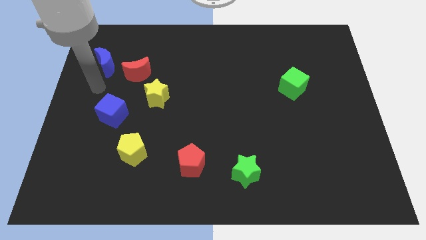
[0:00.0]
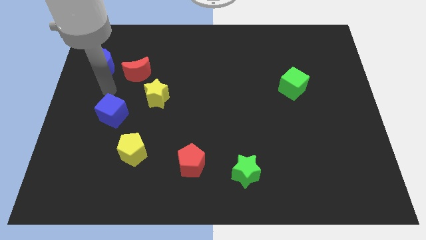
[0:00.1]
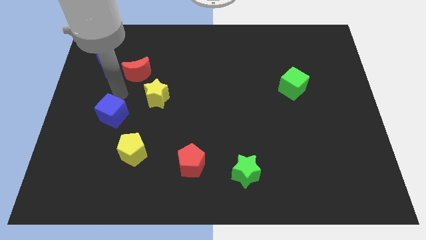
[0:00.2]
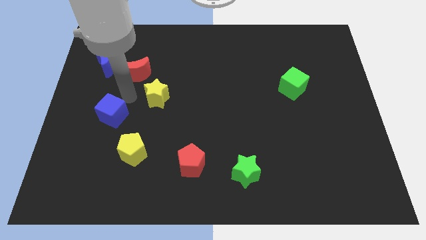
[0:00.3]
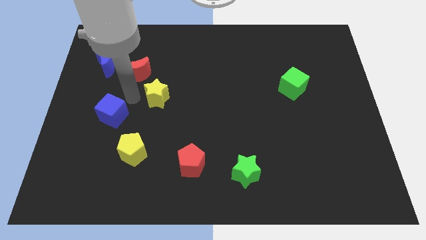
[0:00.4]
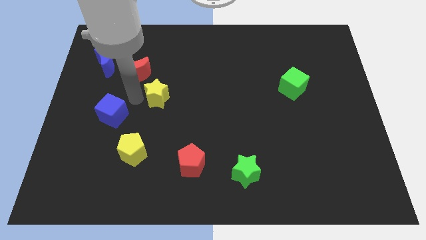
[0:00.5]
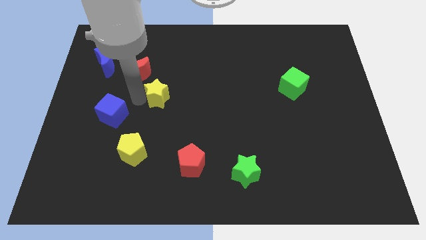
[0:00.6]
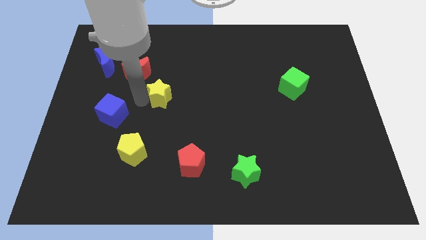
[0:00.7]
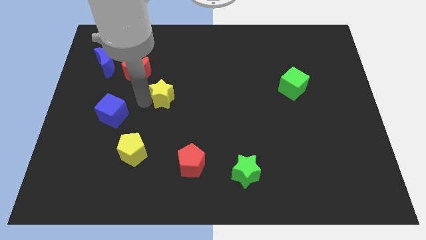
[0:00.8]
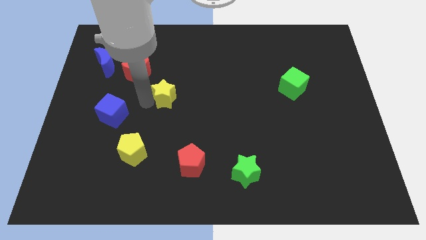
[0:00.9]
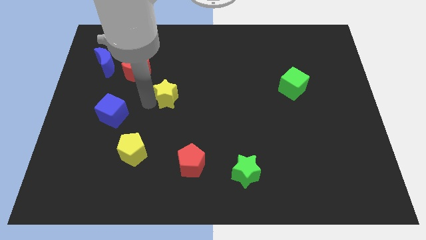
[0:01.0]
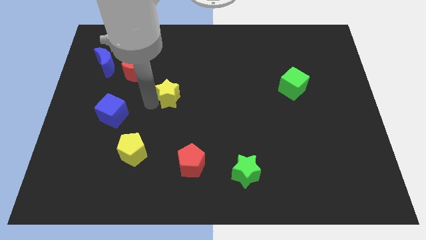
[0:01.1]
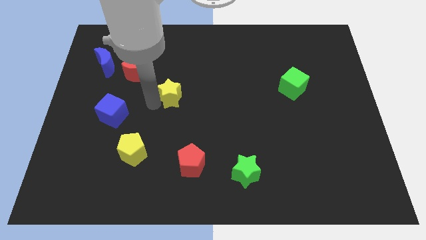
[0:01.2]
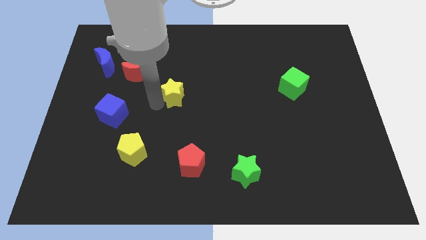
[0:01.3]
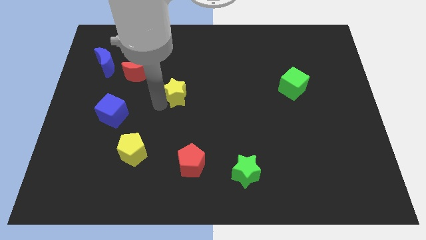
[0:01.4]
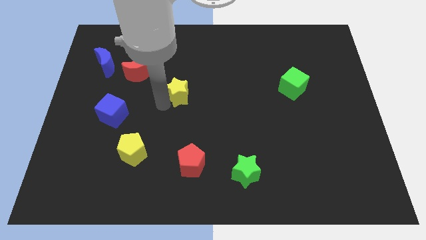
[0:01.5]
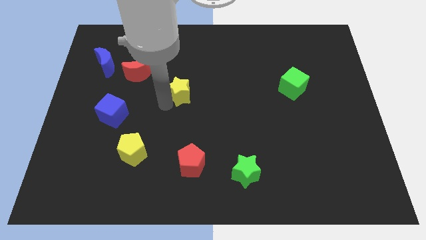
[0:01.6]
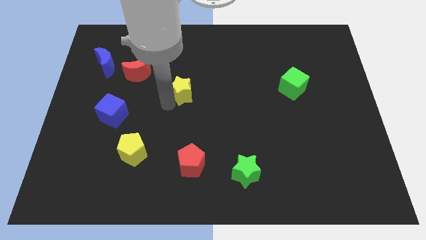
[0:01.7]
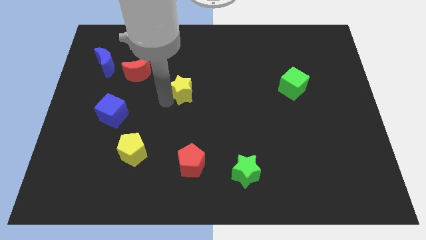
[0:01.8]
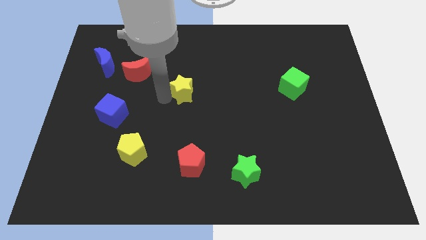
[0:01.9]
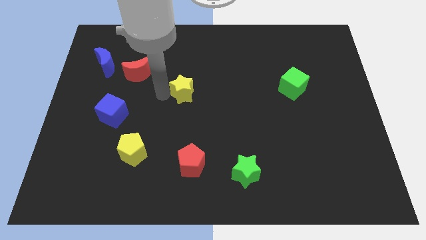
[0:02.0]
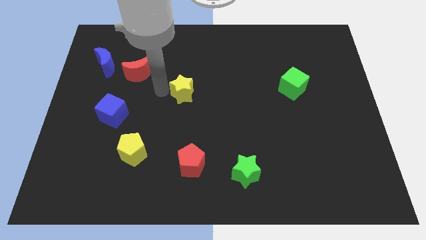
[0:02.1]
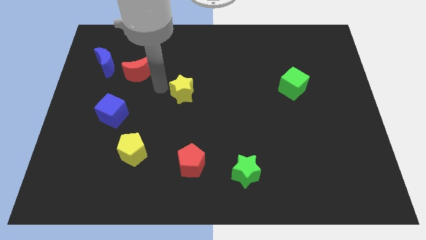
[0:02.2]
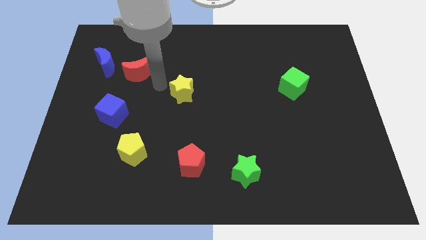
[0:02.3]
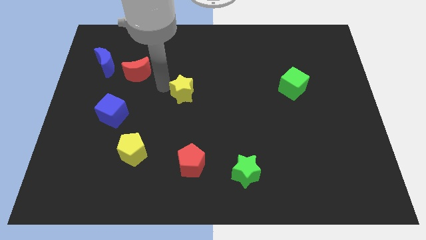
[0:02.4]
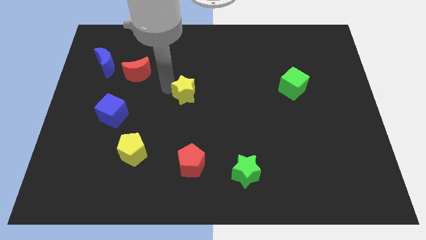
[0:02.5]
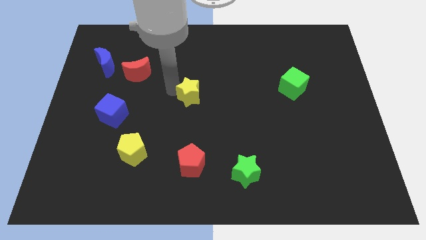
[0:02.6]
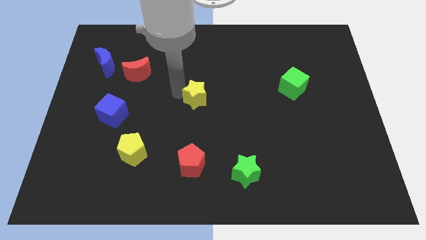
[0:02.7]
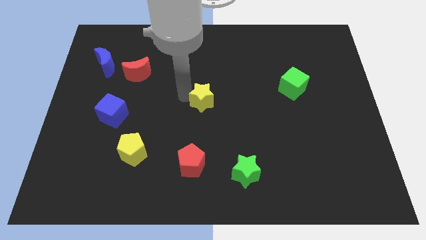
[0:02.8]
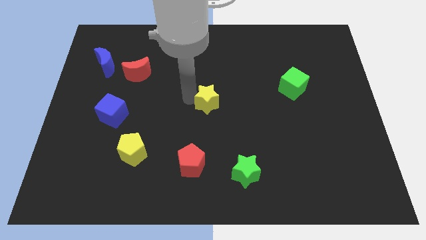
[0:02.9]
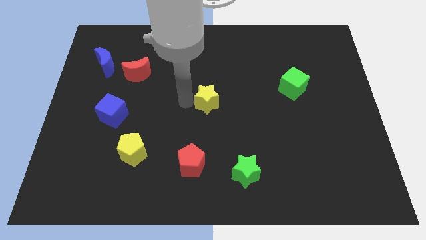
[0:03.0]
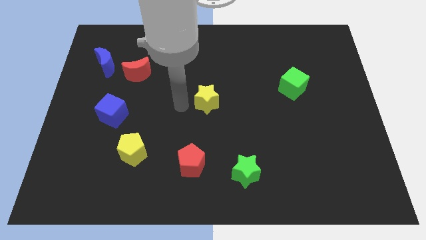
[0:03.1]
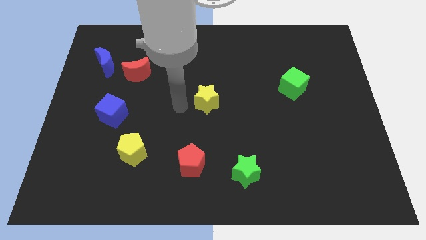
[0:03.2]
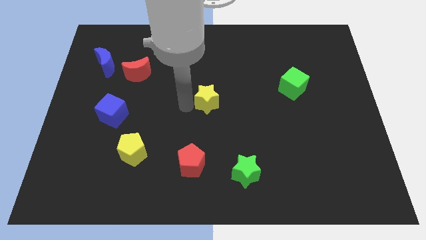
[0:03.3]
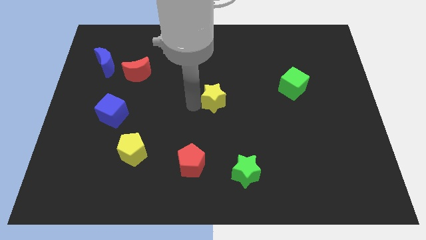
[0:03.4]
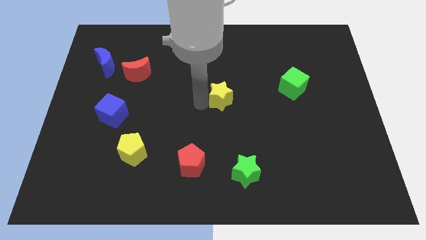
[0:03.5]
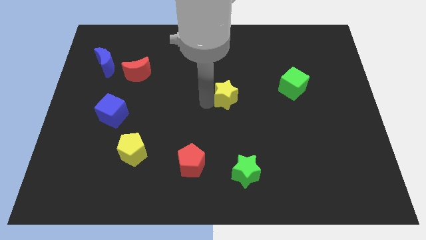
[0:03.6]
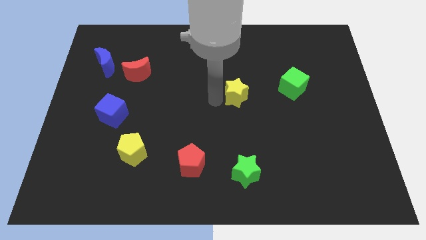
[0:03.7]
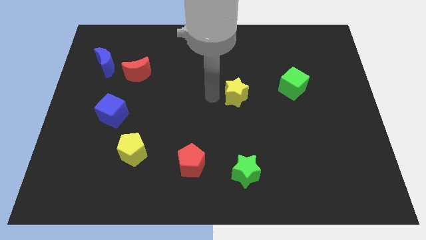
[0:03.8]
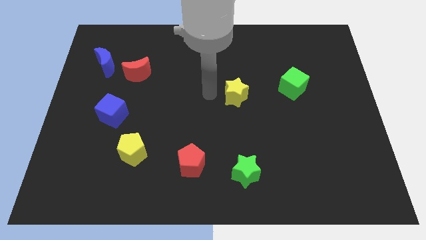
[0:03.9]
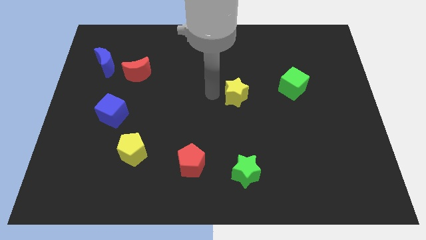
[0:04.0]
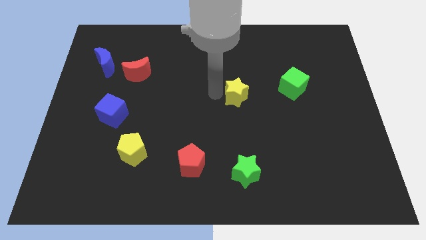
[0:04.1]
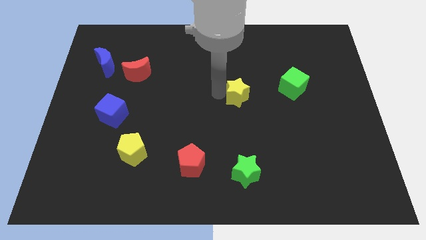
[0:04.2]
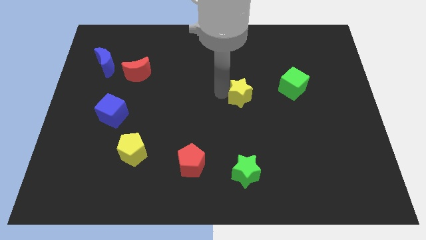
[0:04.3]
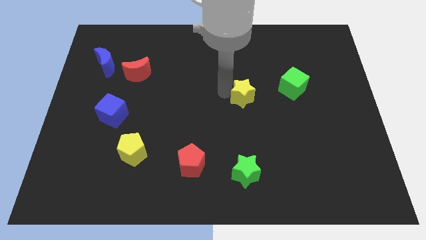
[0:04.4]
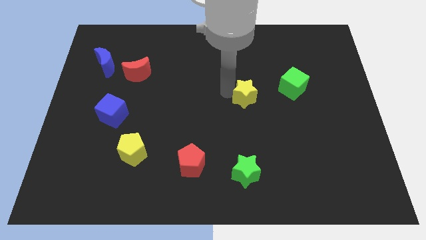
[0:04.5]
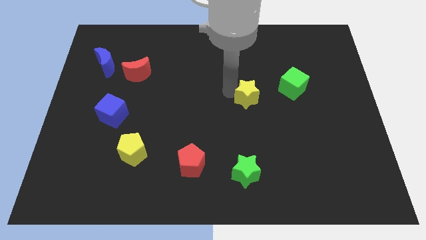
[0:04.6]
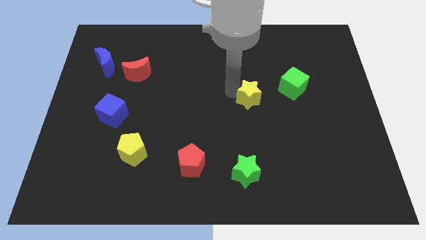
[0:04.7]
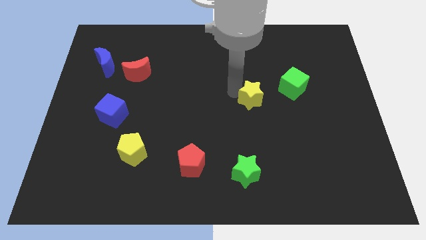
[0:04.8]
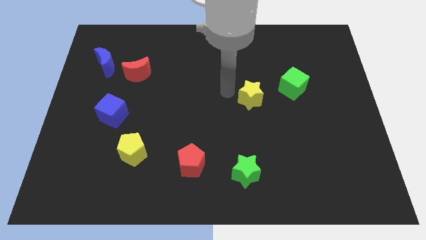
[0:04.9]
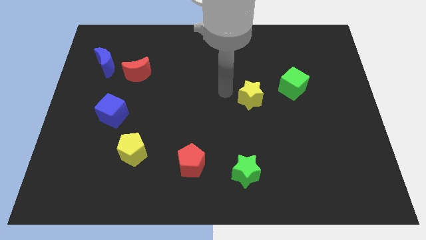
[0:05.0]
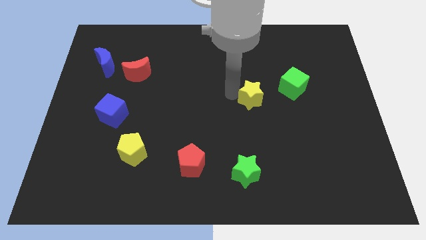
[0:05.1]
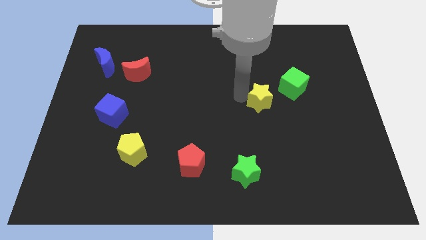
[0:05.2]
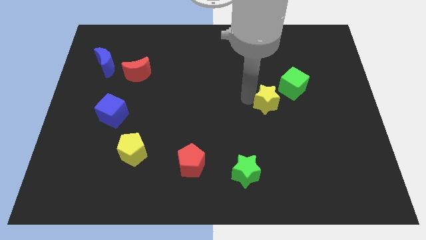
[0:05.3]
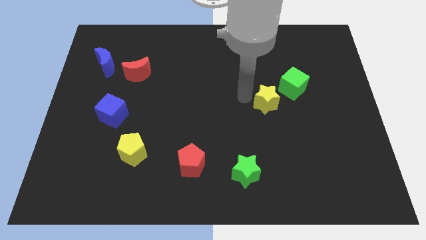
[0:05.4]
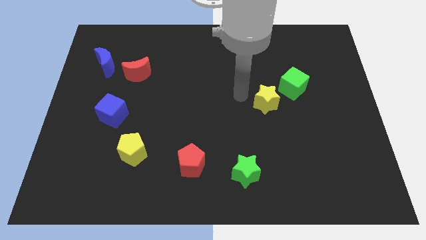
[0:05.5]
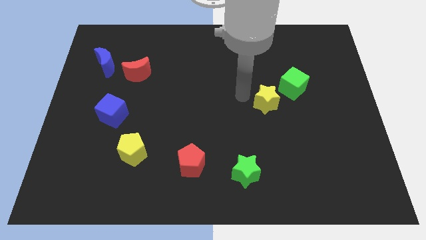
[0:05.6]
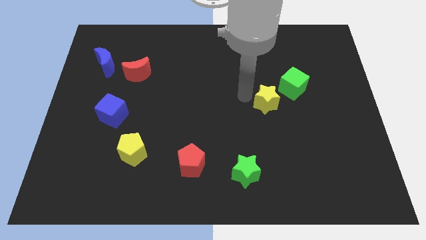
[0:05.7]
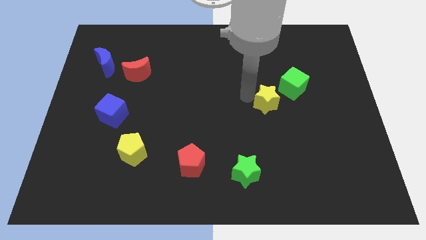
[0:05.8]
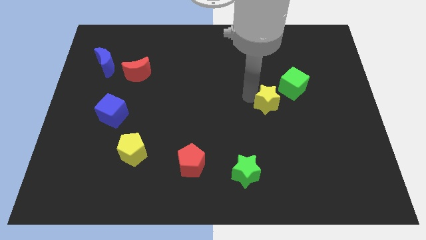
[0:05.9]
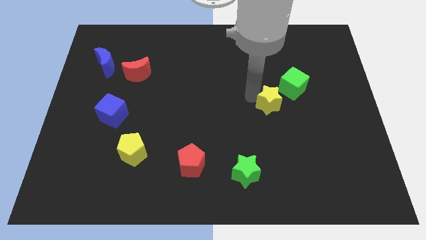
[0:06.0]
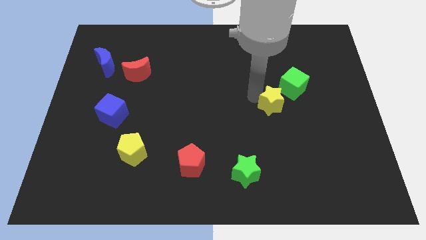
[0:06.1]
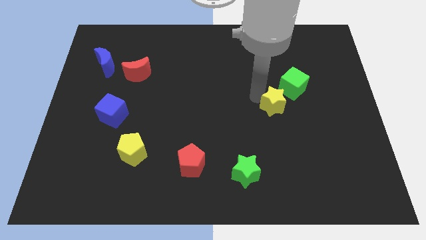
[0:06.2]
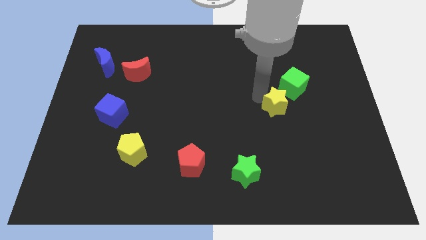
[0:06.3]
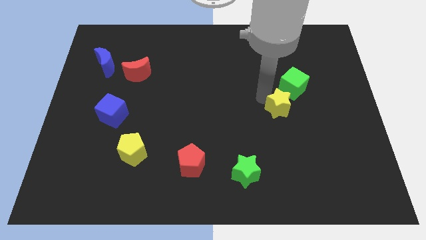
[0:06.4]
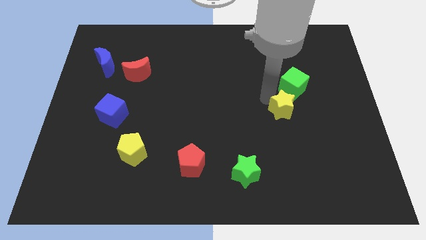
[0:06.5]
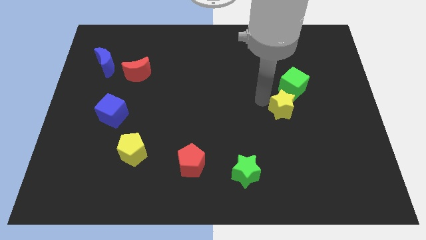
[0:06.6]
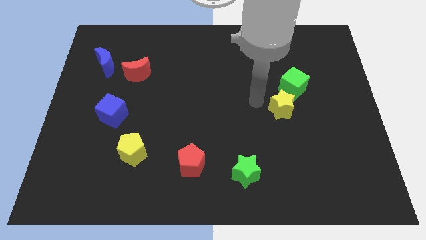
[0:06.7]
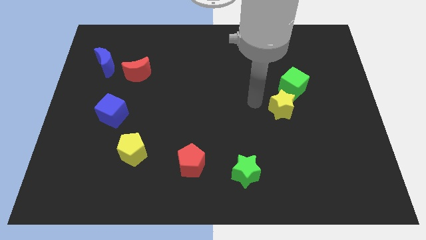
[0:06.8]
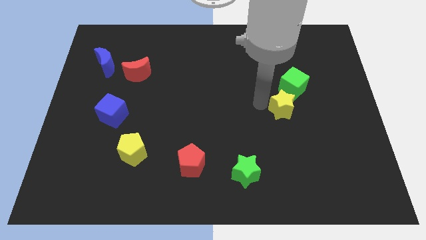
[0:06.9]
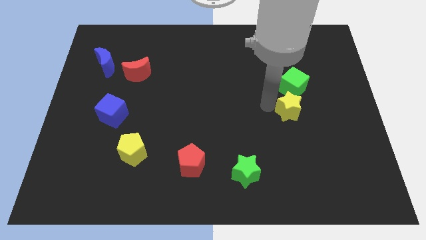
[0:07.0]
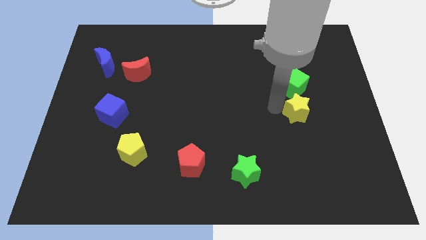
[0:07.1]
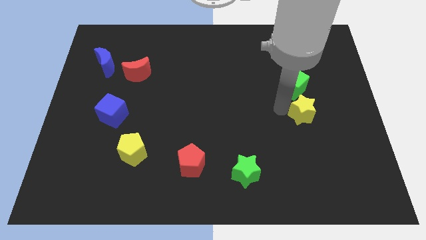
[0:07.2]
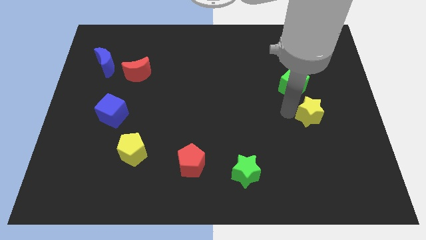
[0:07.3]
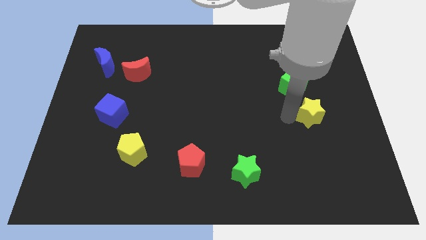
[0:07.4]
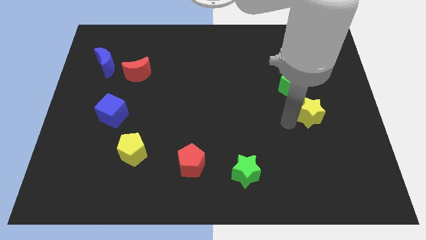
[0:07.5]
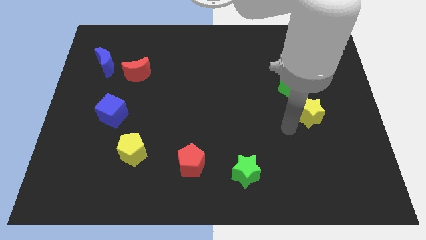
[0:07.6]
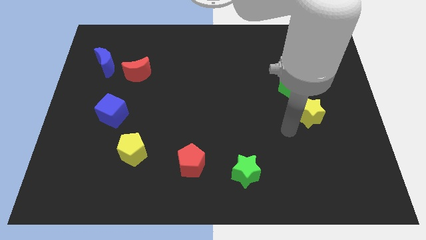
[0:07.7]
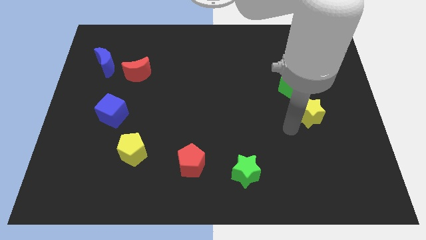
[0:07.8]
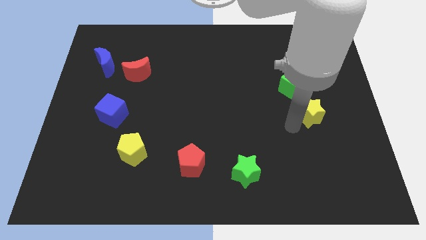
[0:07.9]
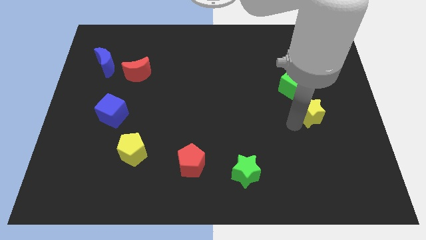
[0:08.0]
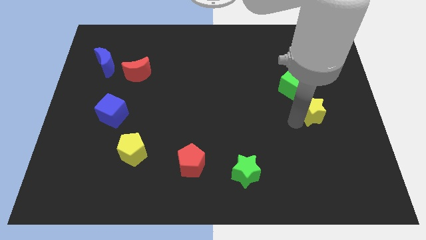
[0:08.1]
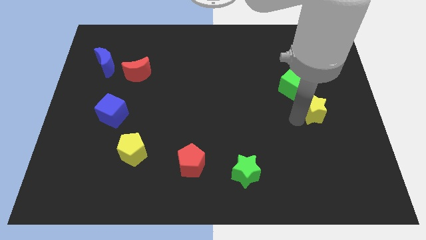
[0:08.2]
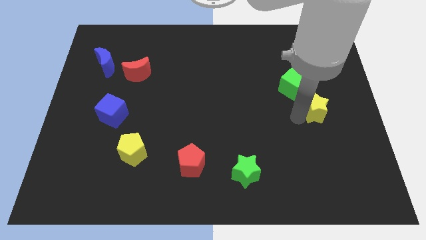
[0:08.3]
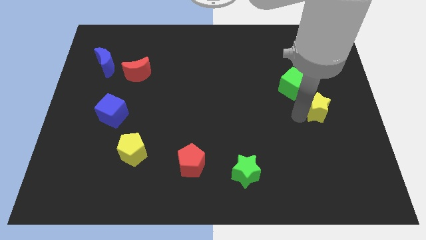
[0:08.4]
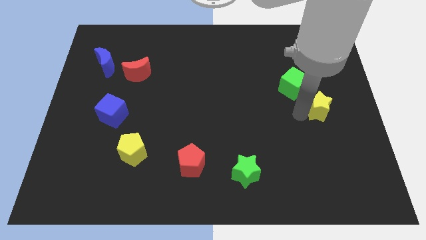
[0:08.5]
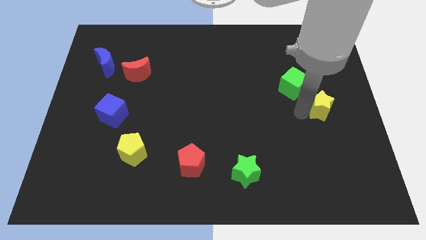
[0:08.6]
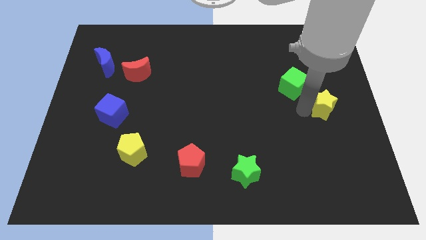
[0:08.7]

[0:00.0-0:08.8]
push the yellow star to the center right
